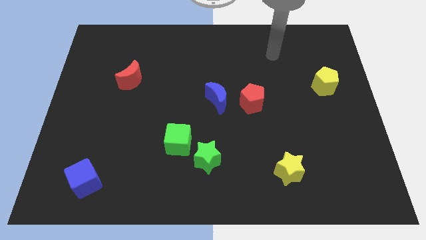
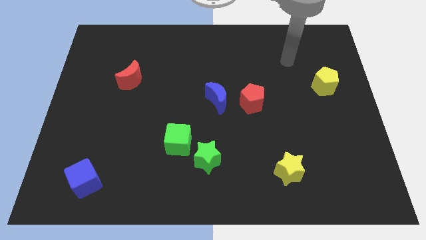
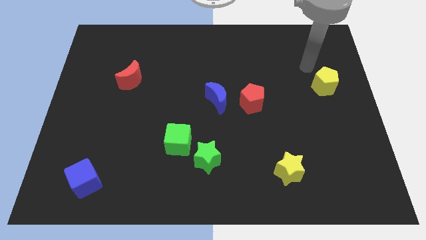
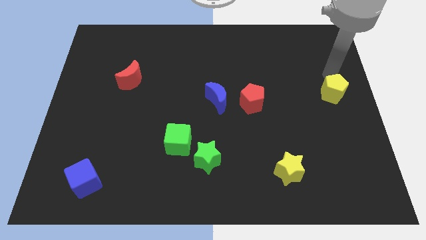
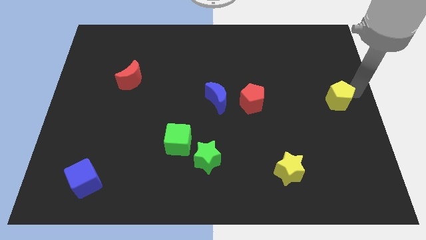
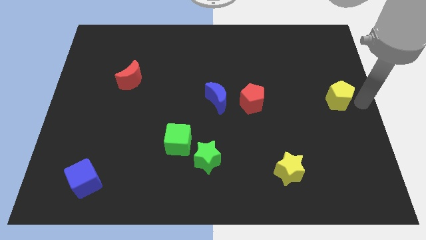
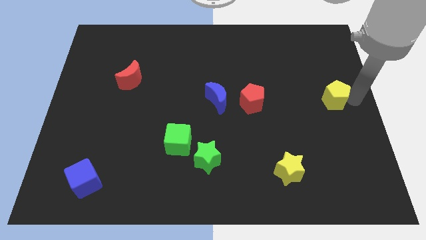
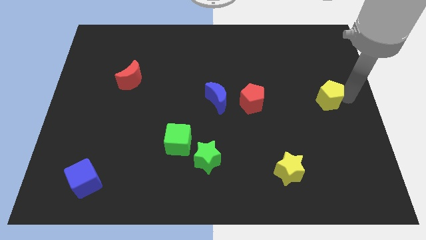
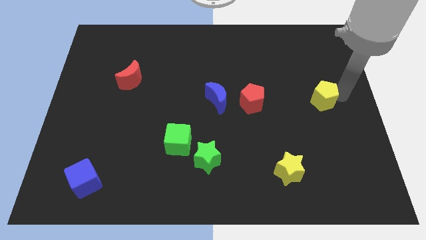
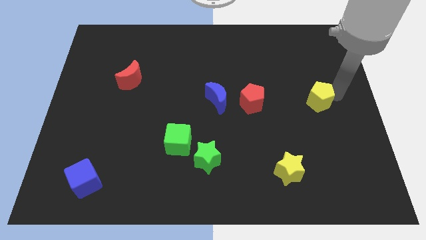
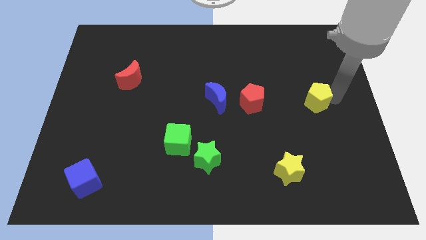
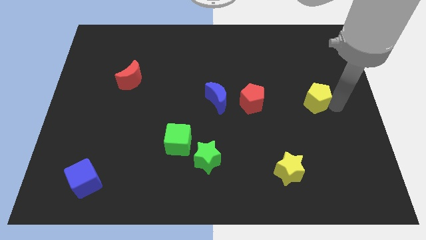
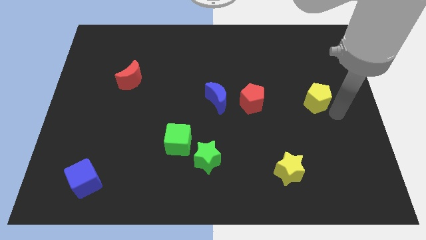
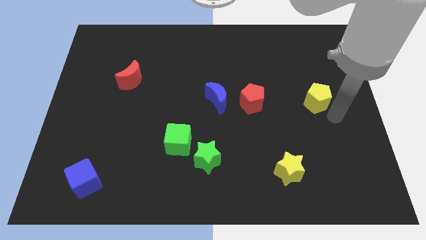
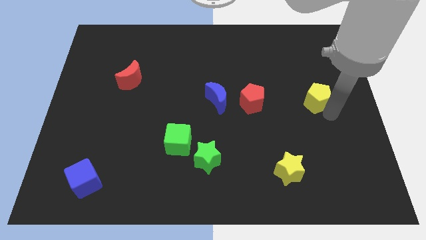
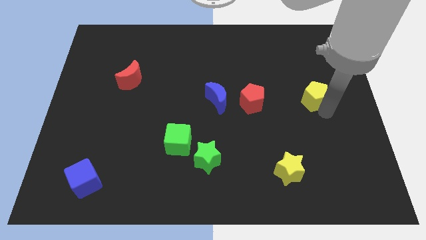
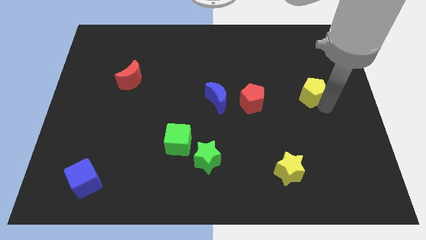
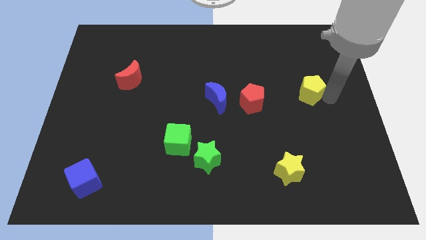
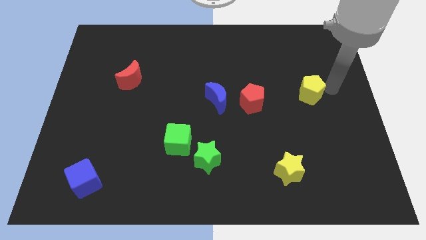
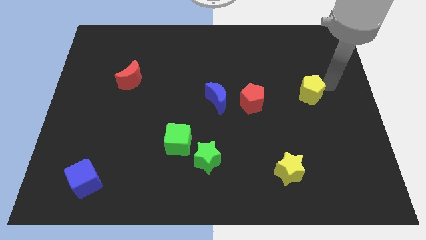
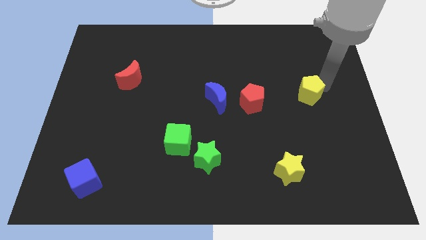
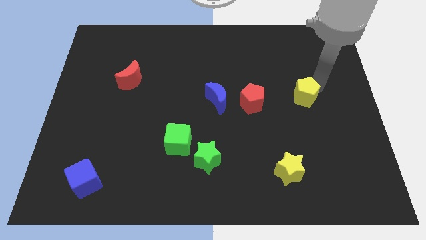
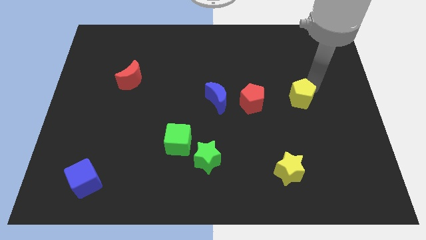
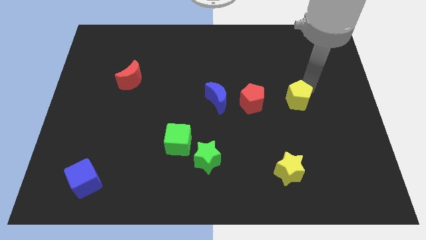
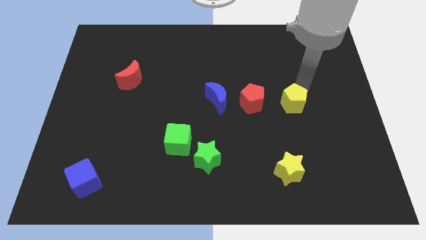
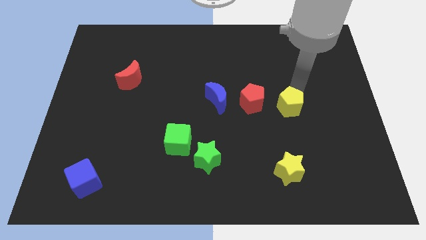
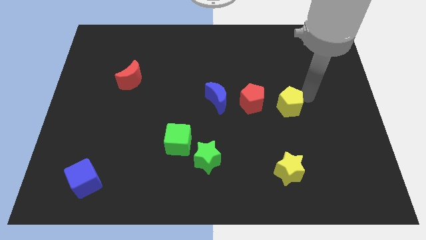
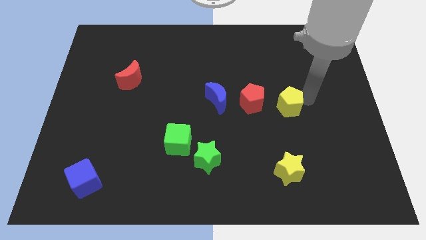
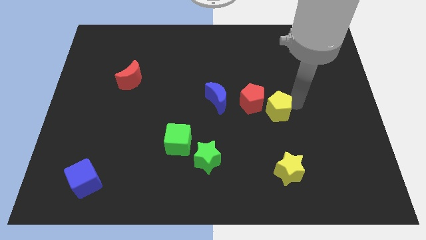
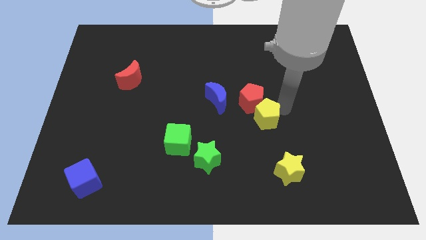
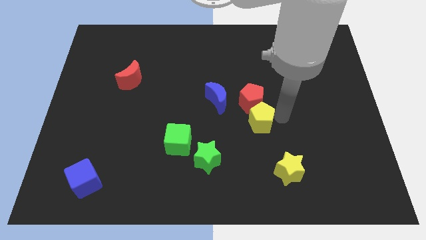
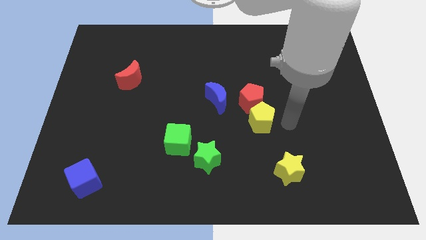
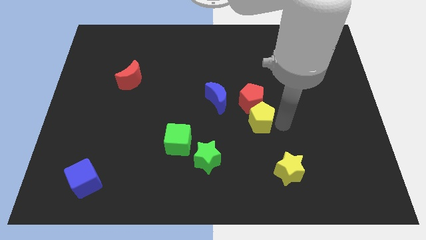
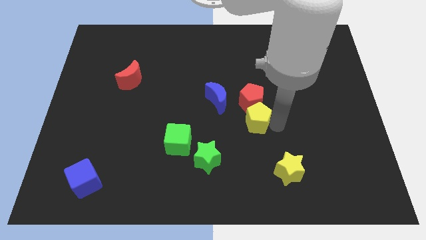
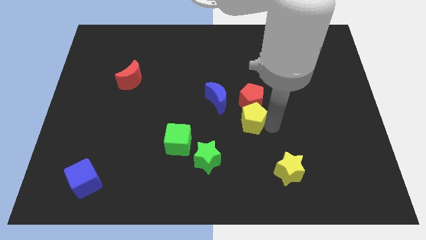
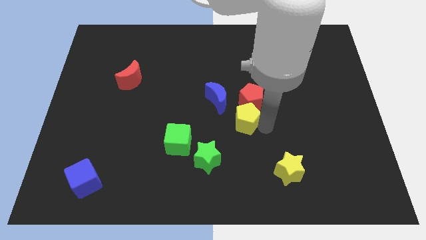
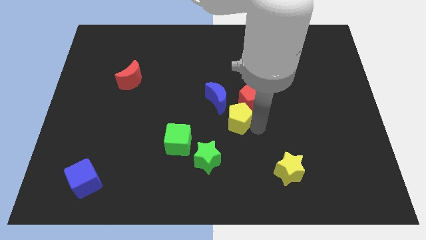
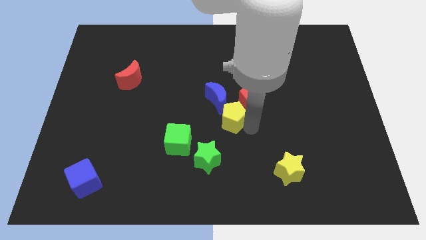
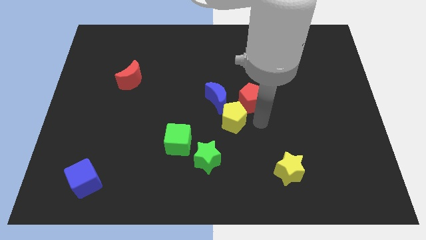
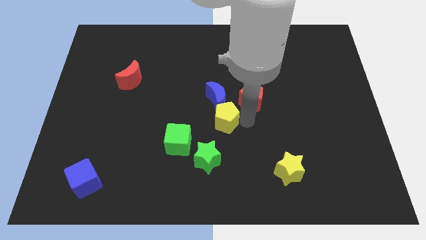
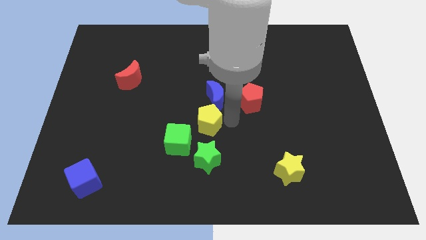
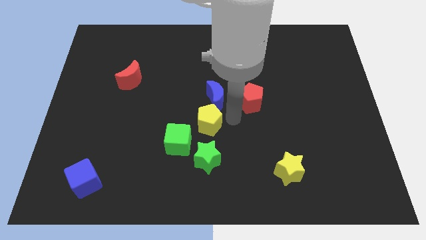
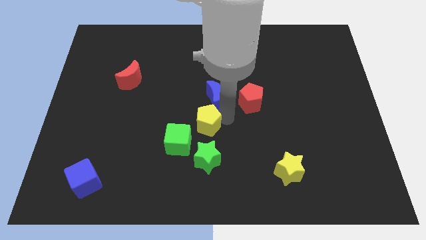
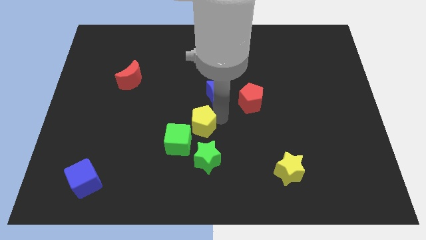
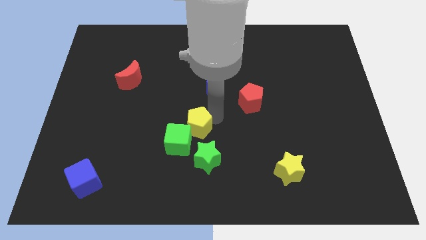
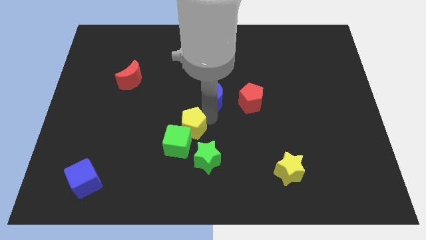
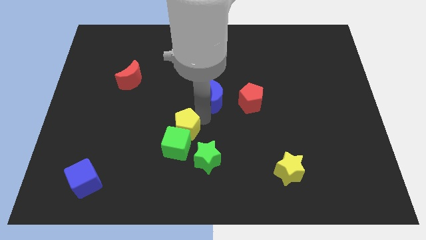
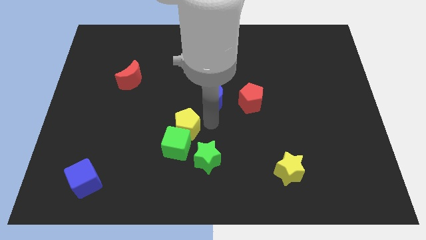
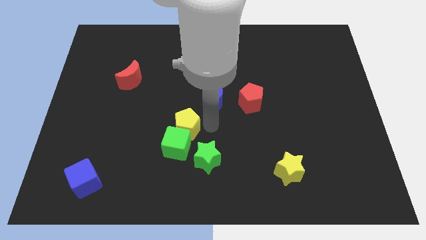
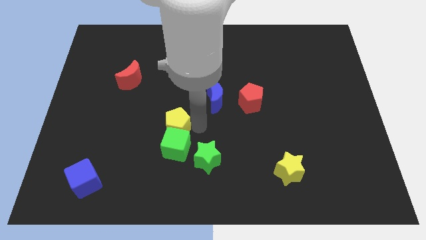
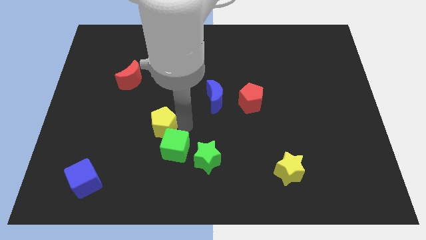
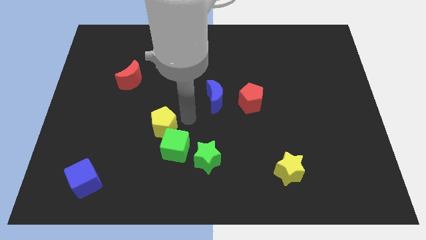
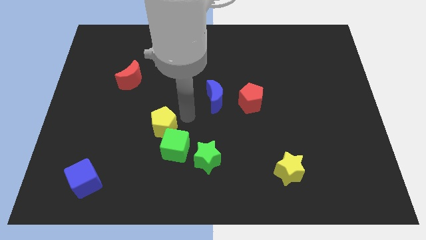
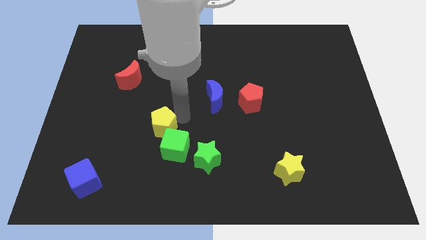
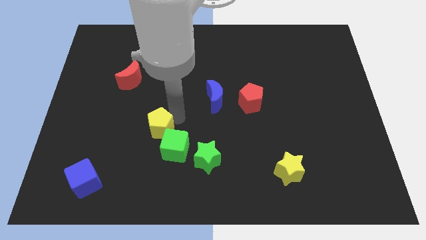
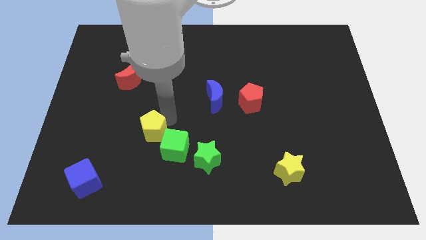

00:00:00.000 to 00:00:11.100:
move the yellow pentagon to the left of the green cube
